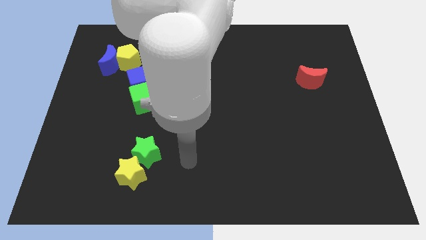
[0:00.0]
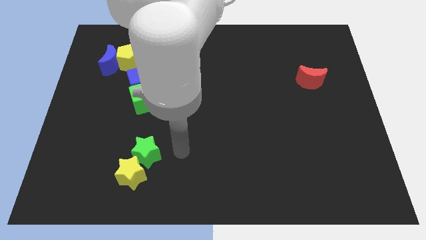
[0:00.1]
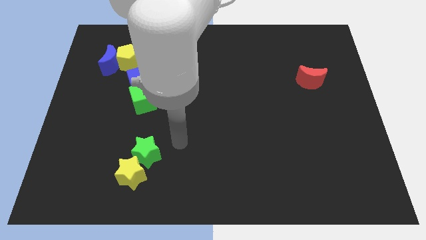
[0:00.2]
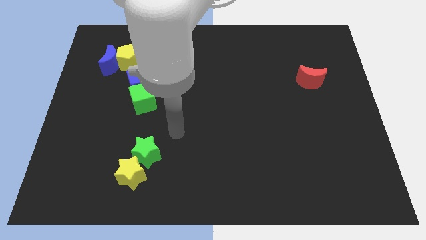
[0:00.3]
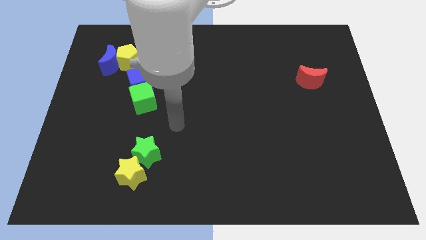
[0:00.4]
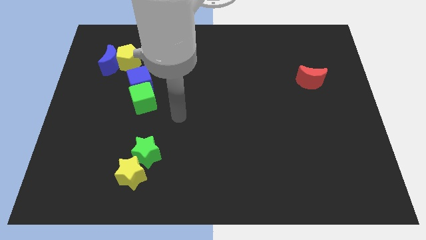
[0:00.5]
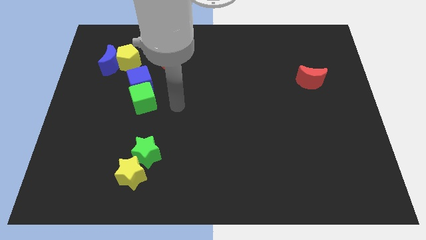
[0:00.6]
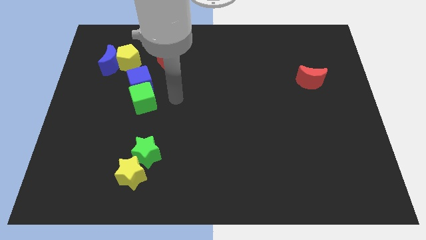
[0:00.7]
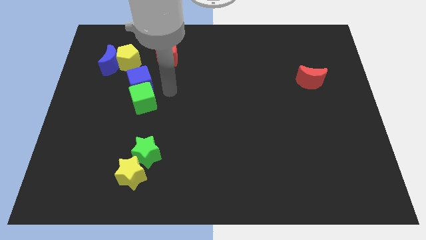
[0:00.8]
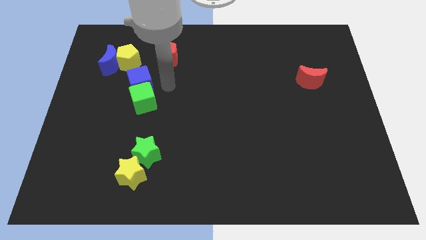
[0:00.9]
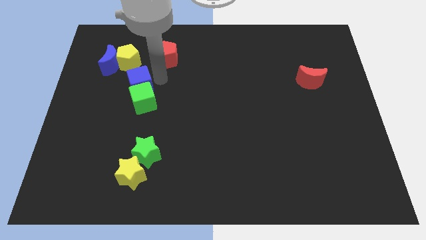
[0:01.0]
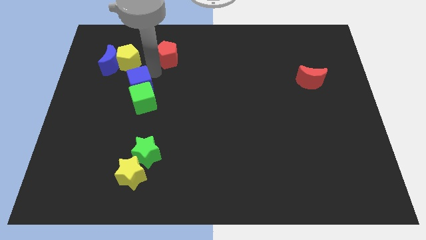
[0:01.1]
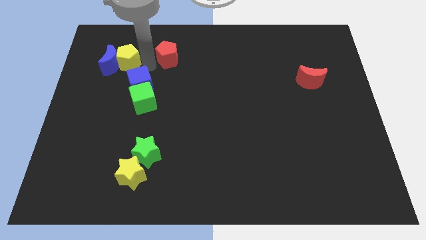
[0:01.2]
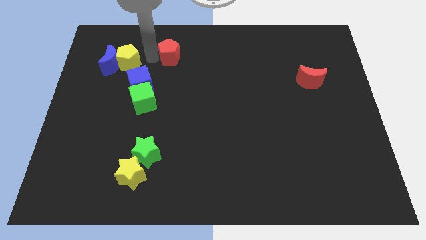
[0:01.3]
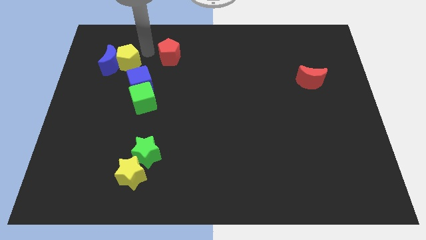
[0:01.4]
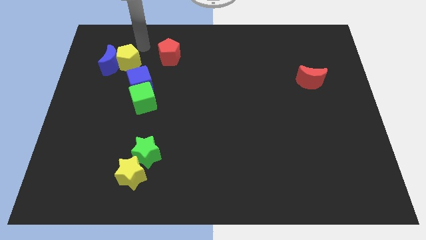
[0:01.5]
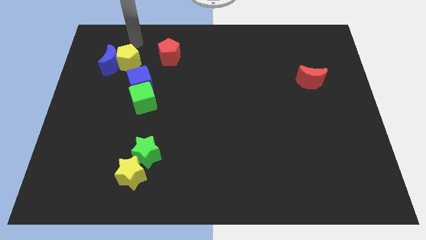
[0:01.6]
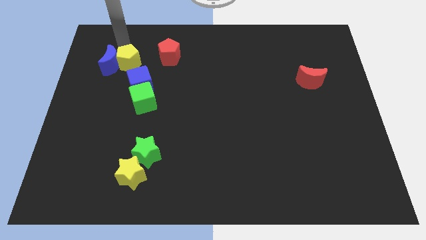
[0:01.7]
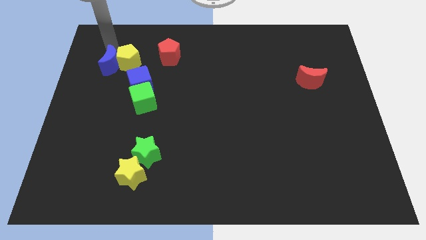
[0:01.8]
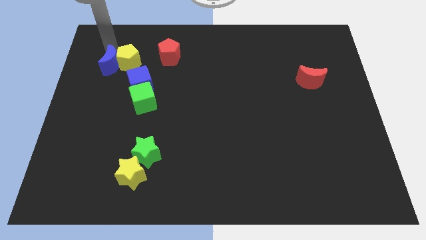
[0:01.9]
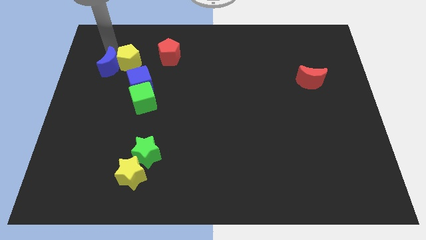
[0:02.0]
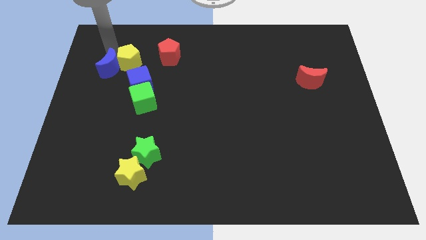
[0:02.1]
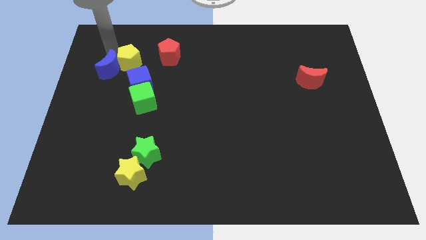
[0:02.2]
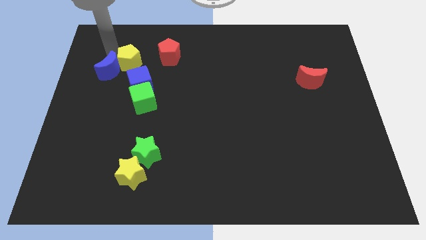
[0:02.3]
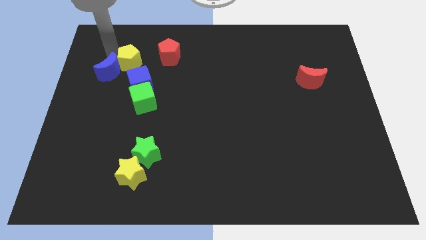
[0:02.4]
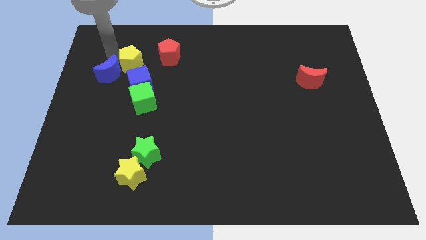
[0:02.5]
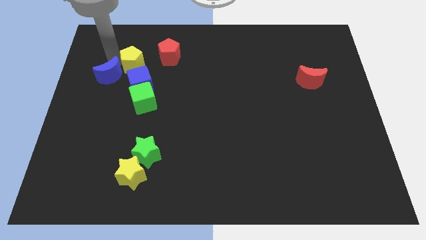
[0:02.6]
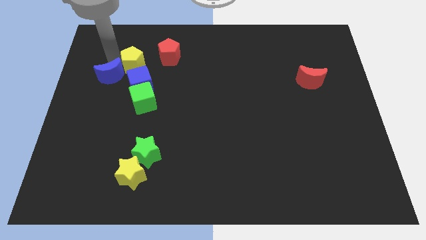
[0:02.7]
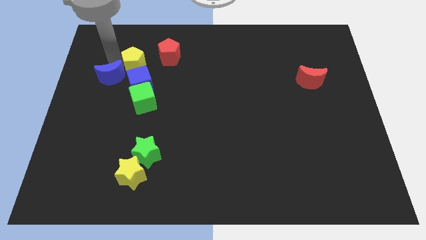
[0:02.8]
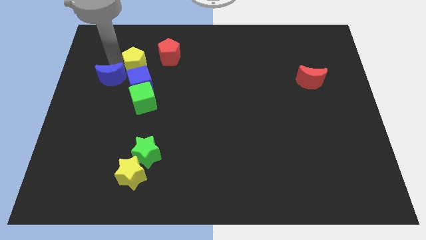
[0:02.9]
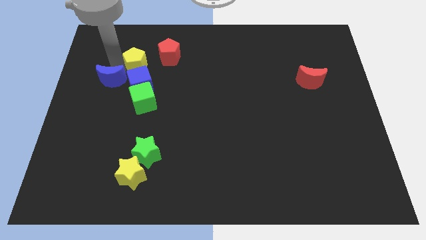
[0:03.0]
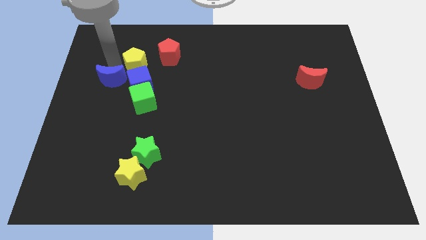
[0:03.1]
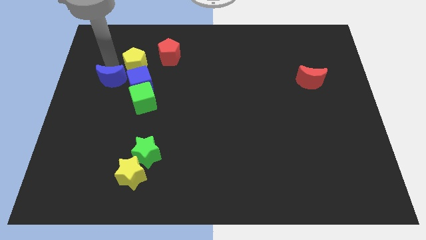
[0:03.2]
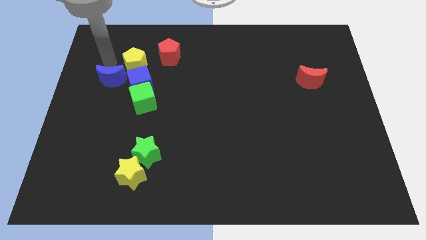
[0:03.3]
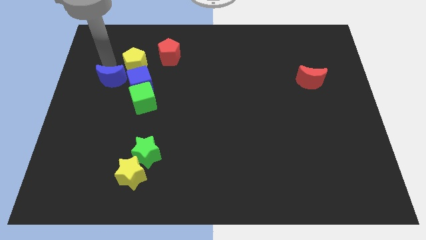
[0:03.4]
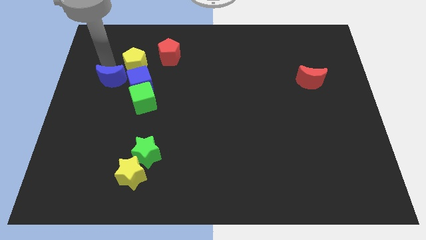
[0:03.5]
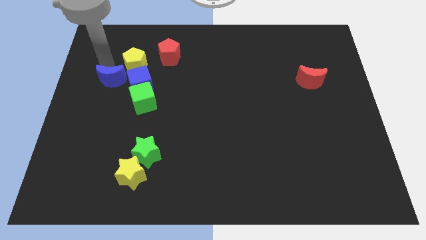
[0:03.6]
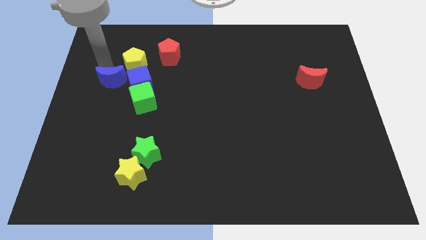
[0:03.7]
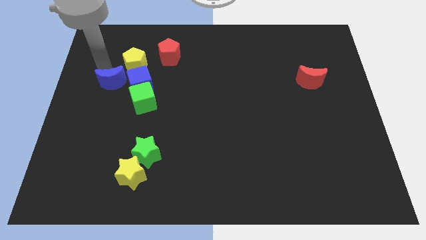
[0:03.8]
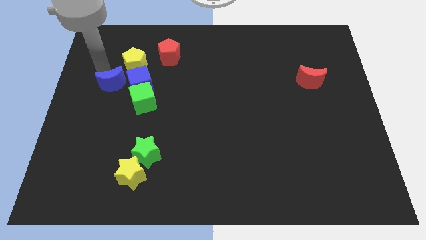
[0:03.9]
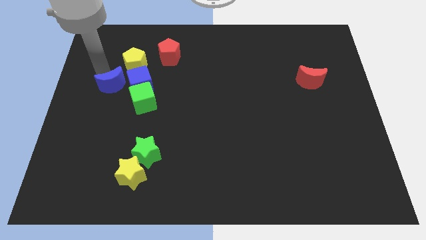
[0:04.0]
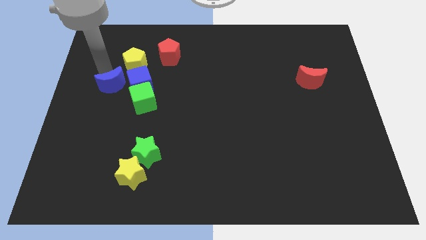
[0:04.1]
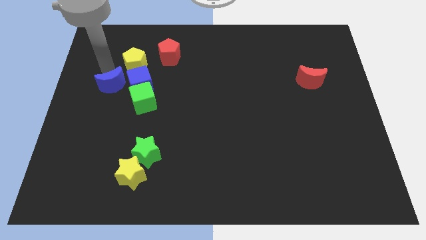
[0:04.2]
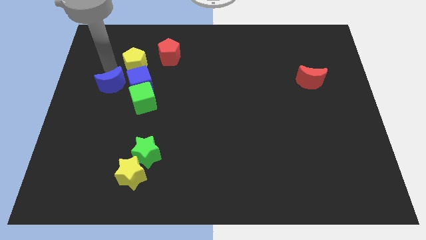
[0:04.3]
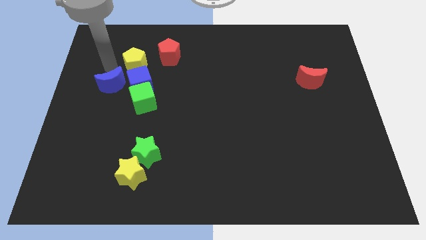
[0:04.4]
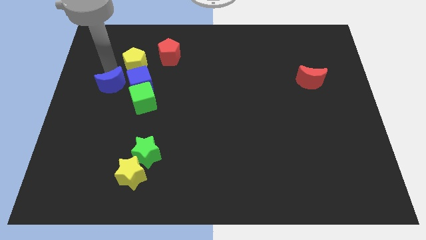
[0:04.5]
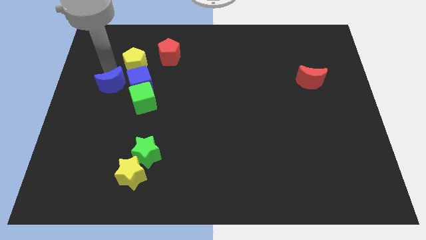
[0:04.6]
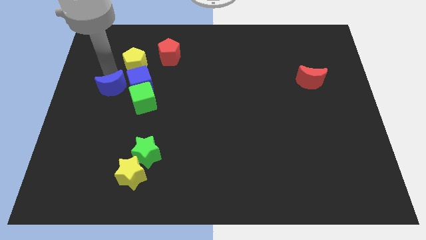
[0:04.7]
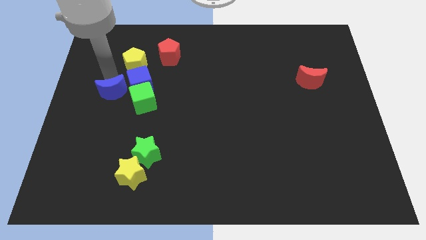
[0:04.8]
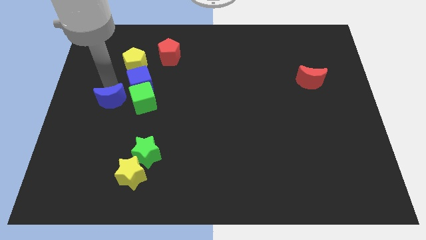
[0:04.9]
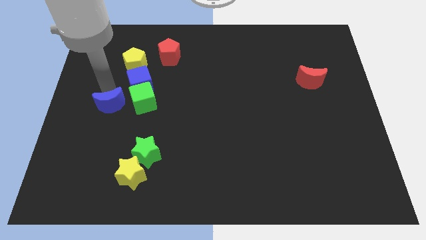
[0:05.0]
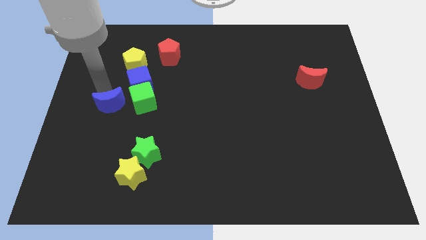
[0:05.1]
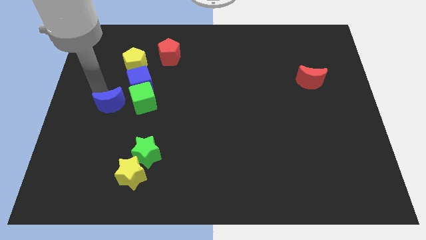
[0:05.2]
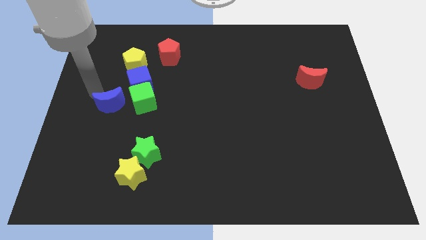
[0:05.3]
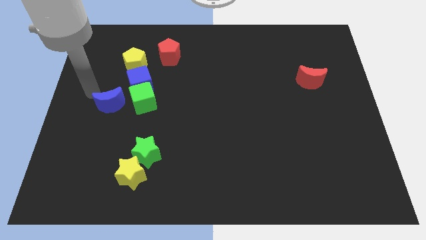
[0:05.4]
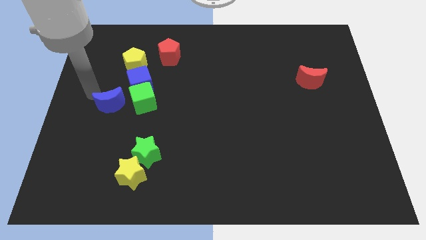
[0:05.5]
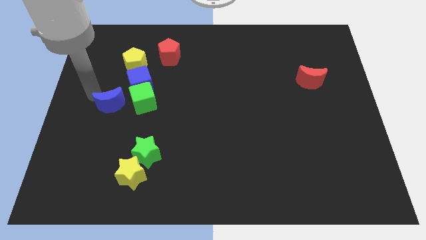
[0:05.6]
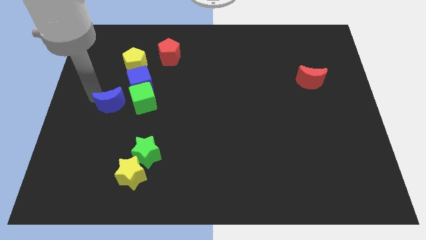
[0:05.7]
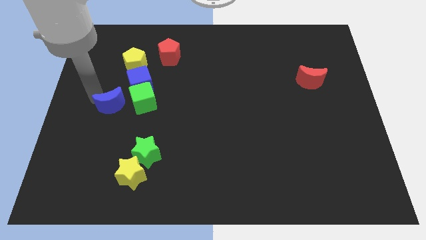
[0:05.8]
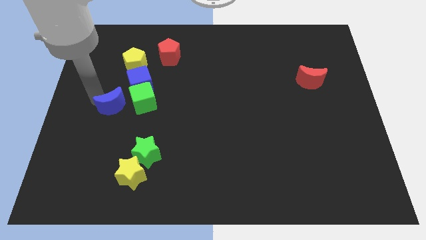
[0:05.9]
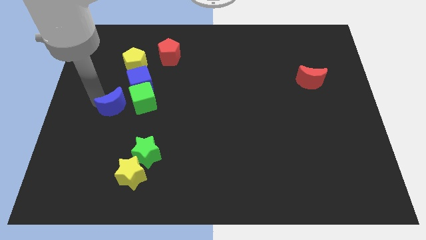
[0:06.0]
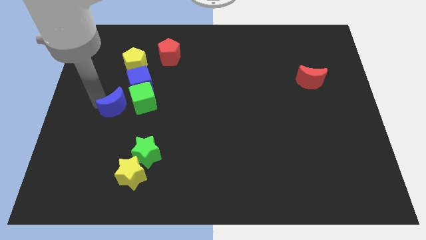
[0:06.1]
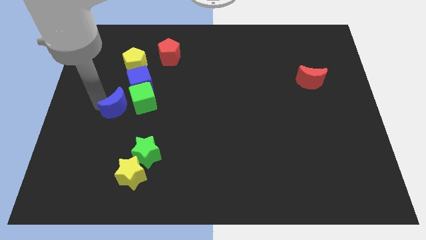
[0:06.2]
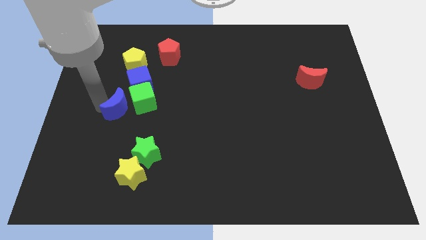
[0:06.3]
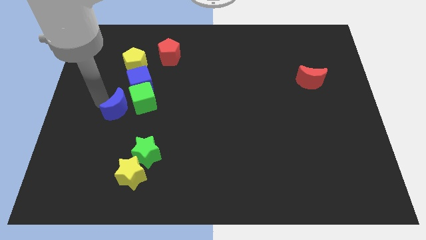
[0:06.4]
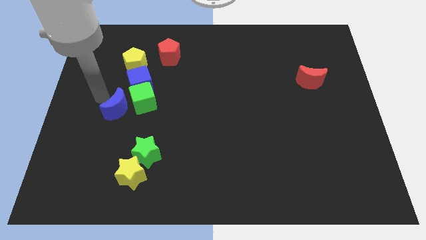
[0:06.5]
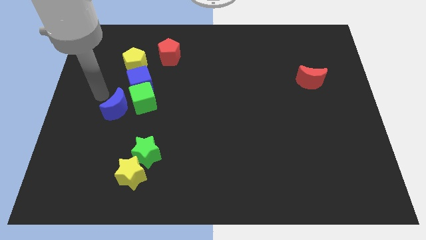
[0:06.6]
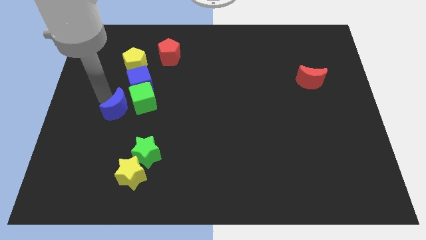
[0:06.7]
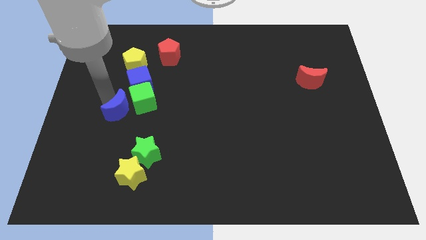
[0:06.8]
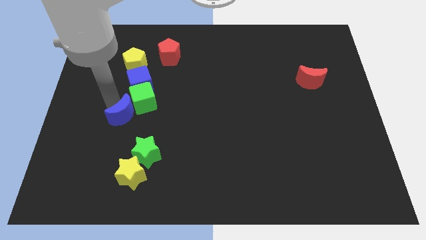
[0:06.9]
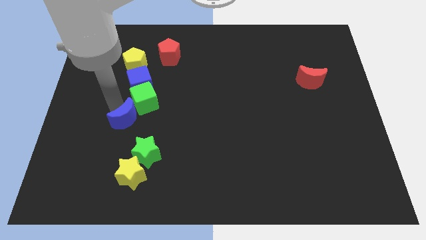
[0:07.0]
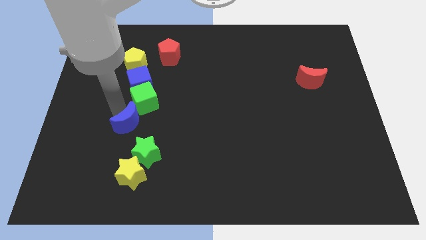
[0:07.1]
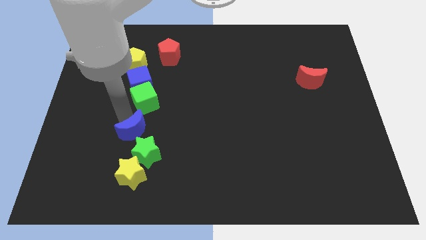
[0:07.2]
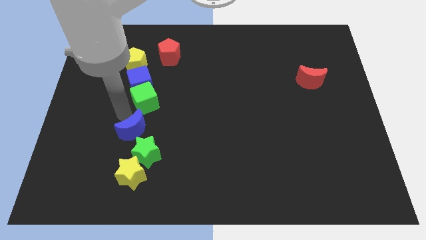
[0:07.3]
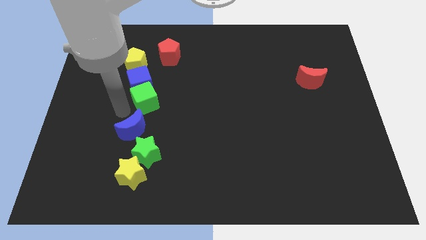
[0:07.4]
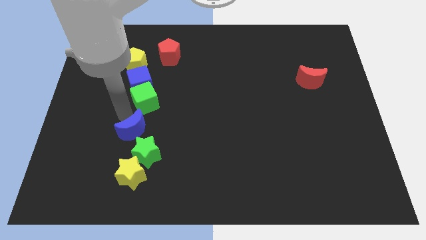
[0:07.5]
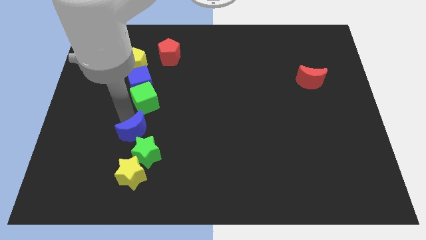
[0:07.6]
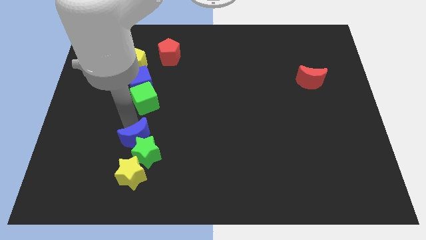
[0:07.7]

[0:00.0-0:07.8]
move the blue moon close to the green star
